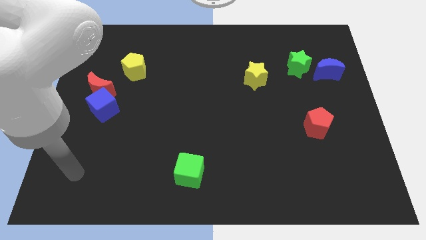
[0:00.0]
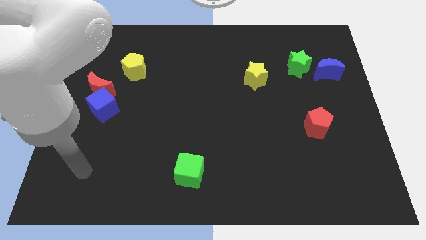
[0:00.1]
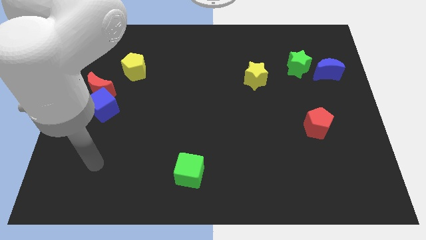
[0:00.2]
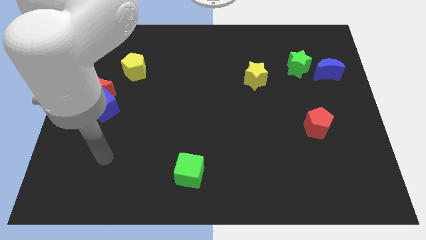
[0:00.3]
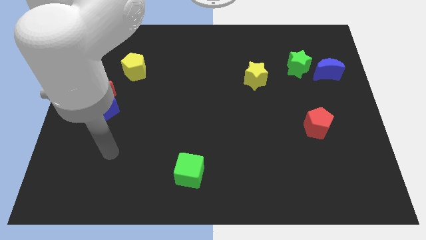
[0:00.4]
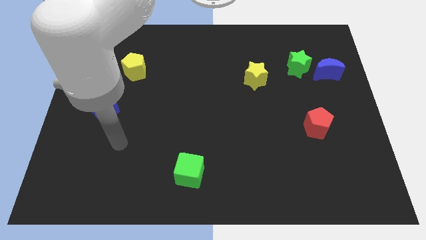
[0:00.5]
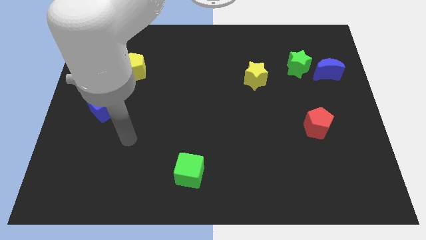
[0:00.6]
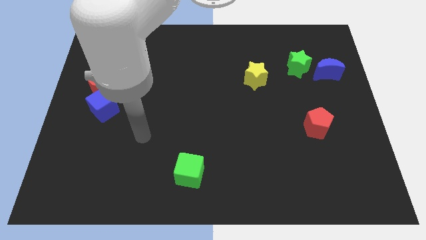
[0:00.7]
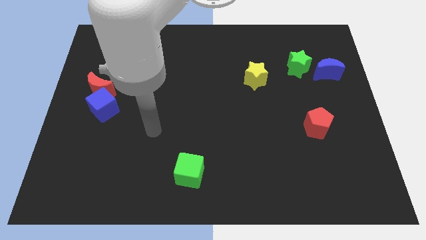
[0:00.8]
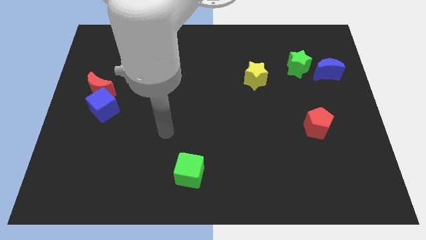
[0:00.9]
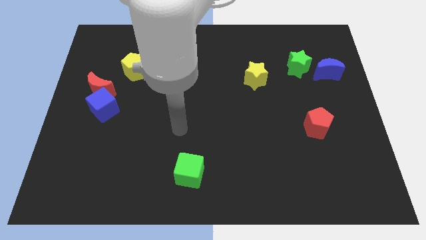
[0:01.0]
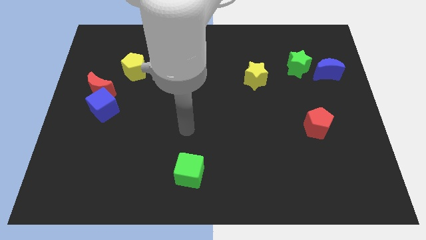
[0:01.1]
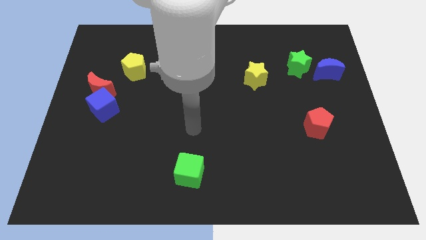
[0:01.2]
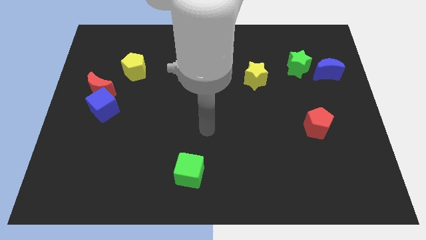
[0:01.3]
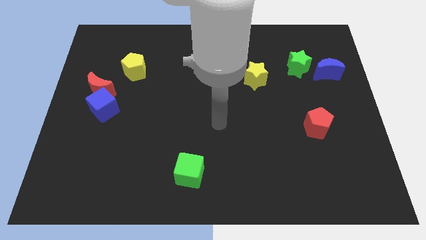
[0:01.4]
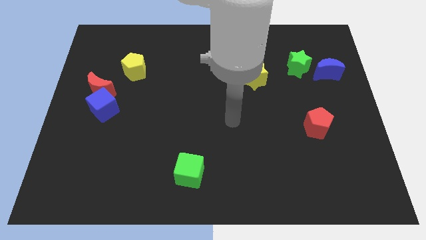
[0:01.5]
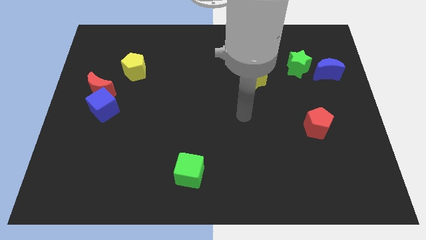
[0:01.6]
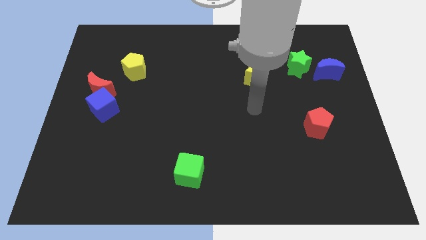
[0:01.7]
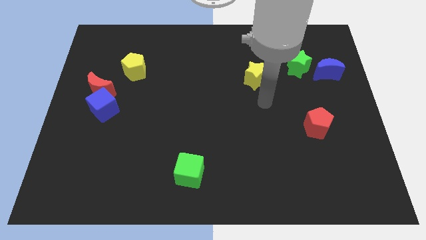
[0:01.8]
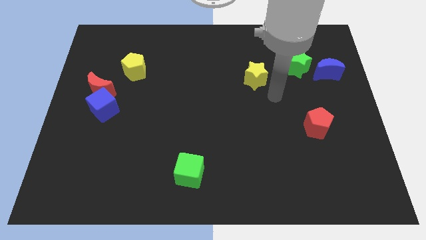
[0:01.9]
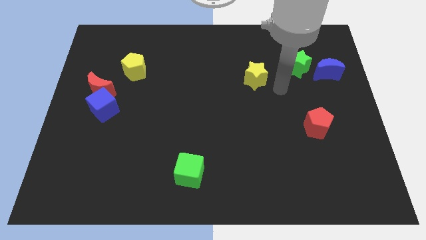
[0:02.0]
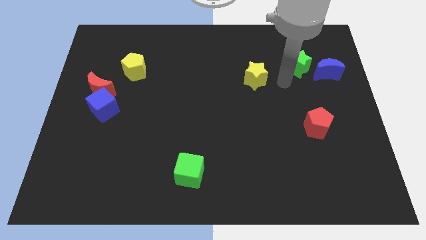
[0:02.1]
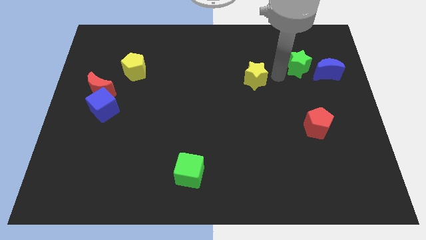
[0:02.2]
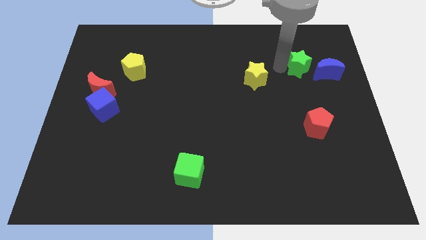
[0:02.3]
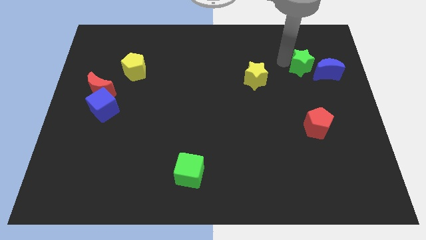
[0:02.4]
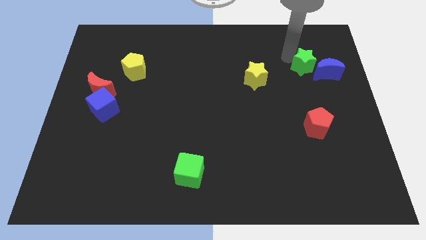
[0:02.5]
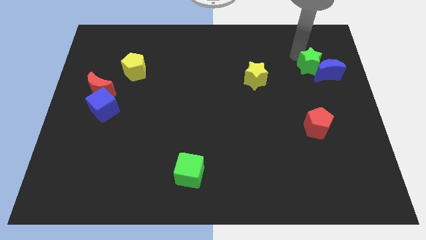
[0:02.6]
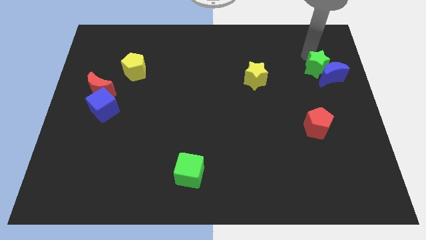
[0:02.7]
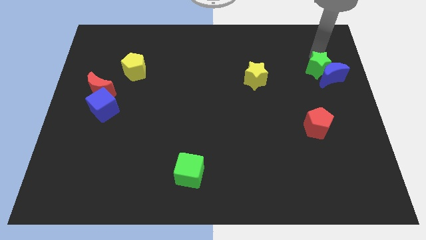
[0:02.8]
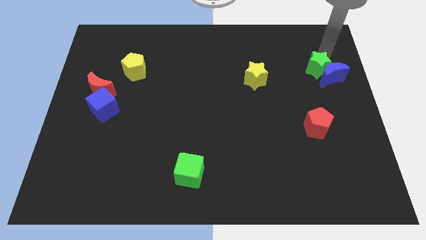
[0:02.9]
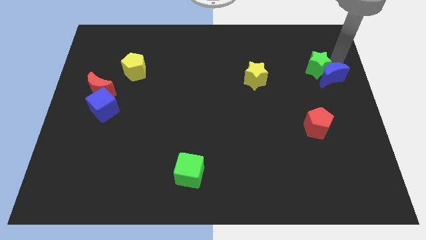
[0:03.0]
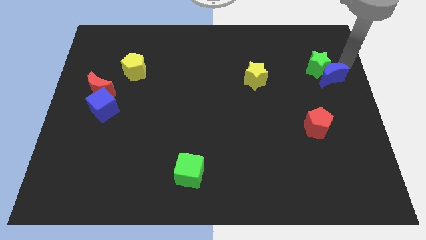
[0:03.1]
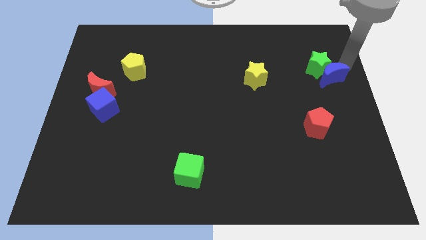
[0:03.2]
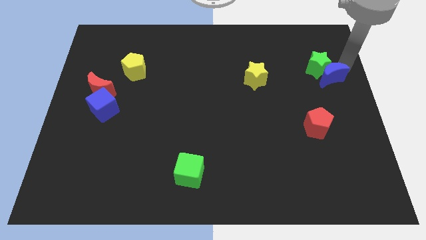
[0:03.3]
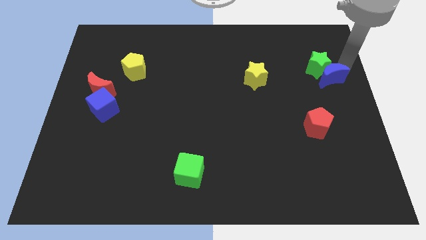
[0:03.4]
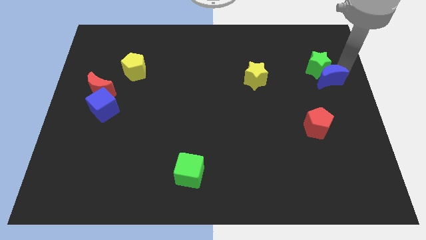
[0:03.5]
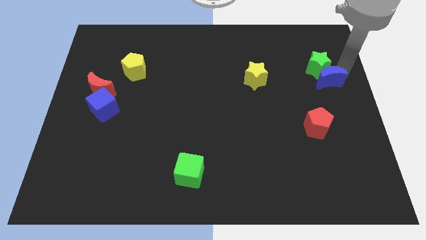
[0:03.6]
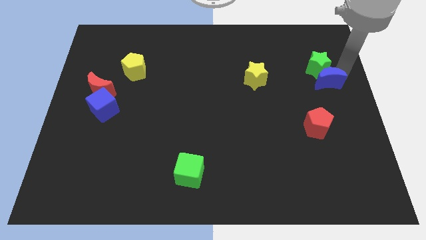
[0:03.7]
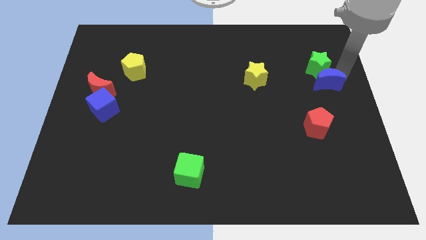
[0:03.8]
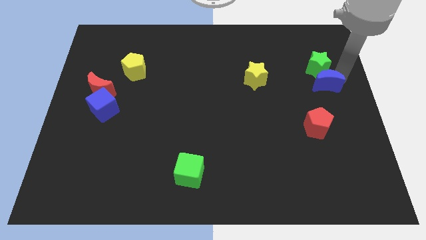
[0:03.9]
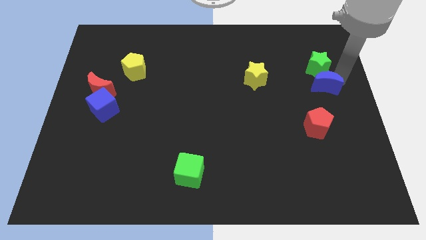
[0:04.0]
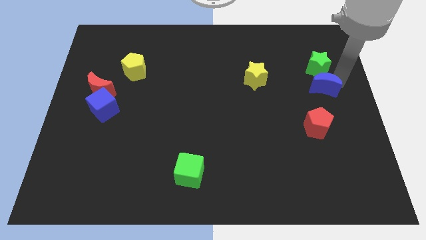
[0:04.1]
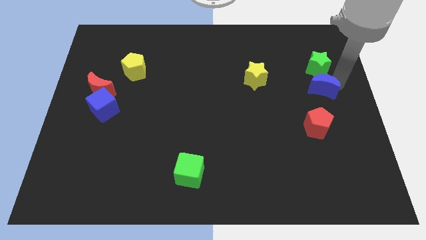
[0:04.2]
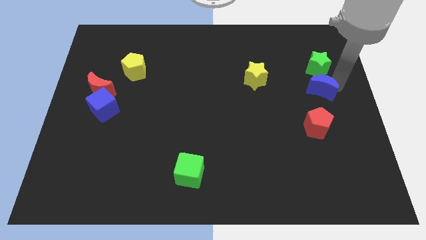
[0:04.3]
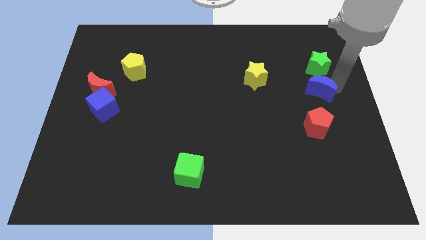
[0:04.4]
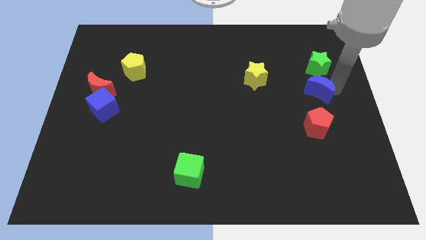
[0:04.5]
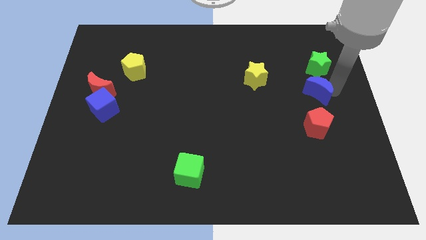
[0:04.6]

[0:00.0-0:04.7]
move the blue moon downwards and then to the left slightly

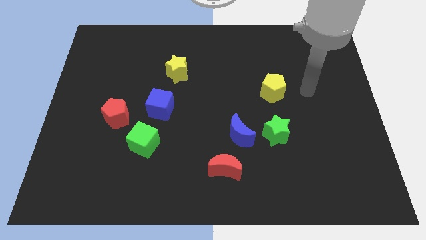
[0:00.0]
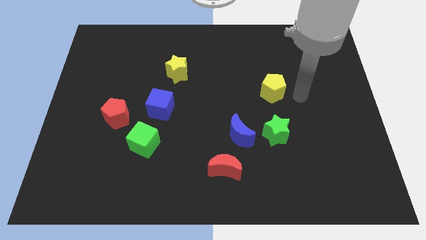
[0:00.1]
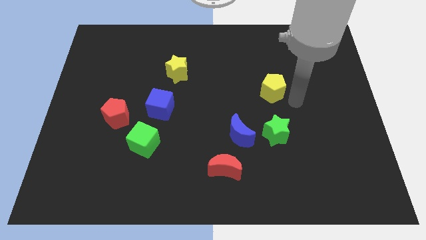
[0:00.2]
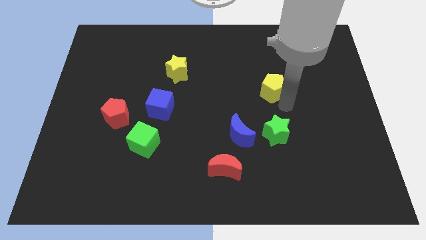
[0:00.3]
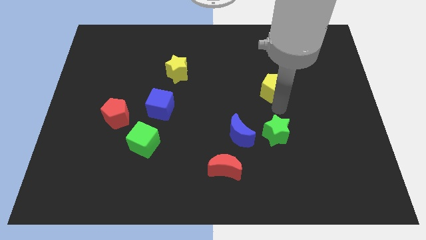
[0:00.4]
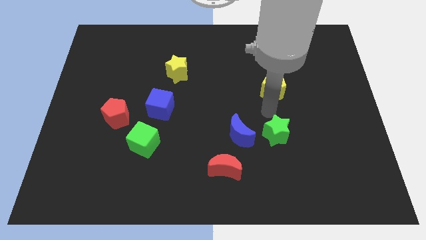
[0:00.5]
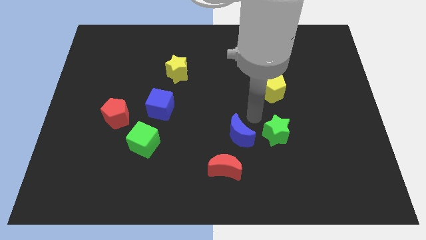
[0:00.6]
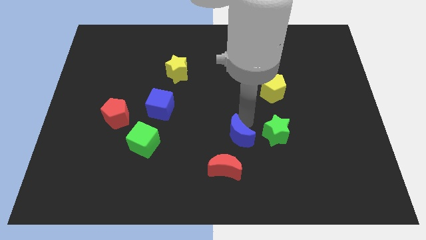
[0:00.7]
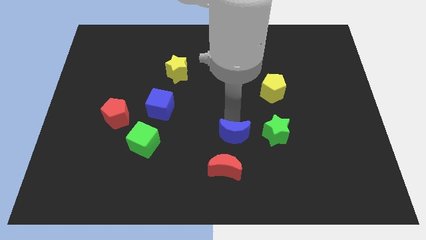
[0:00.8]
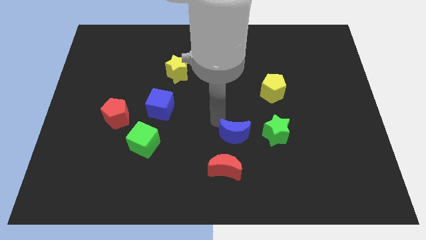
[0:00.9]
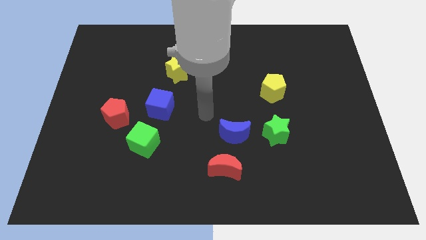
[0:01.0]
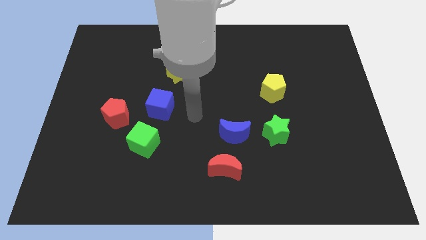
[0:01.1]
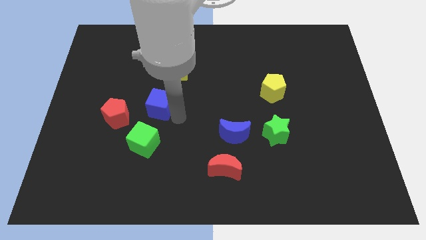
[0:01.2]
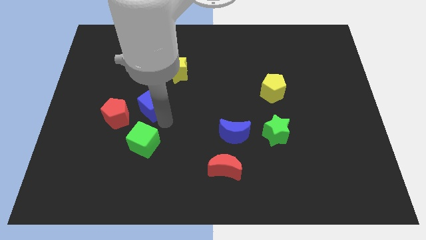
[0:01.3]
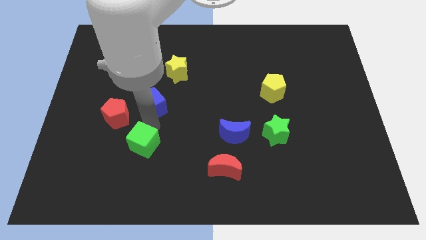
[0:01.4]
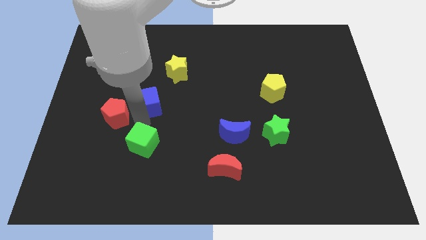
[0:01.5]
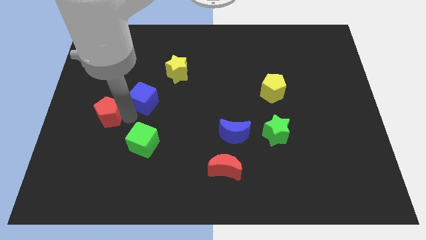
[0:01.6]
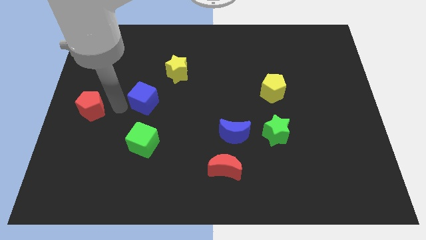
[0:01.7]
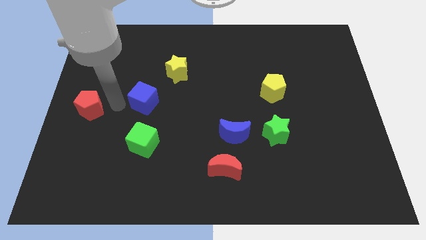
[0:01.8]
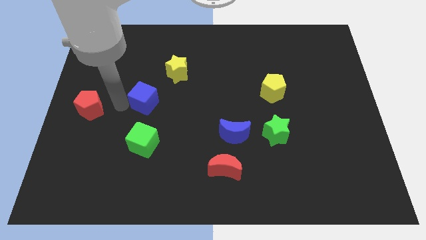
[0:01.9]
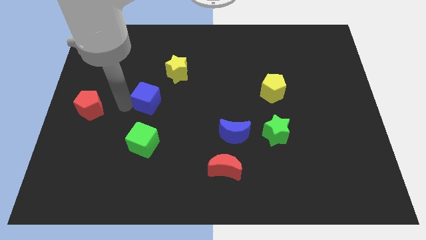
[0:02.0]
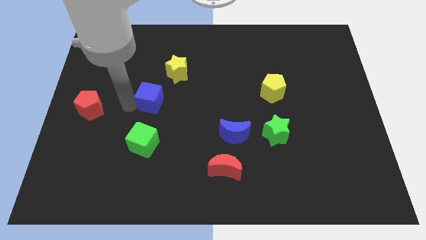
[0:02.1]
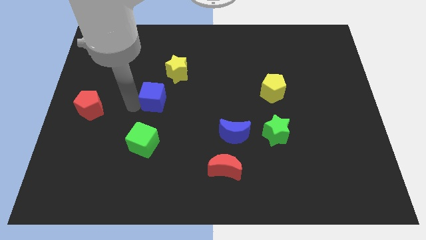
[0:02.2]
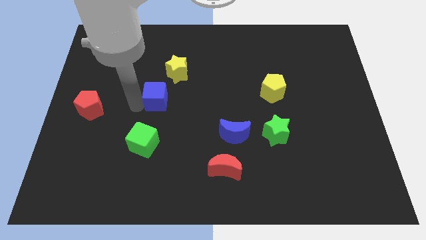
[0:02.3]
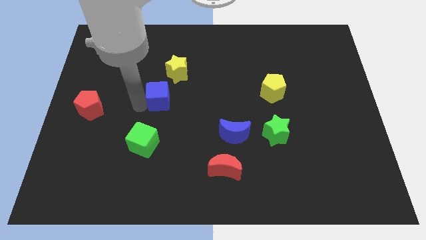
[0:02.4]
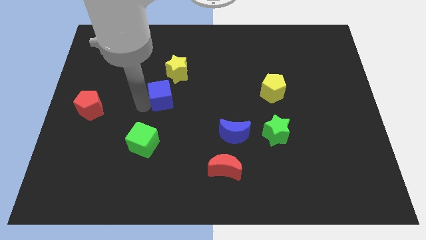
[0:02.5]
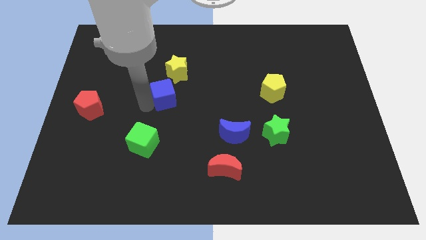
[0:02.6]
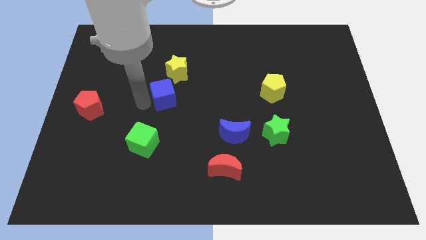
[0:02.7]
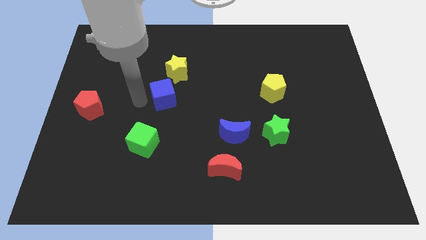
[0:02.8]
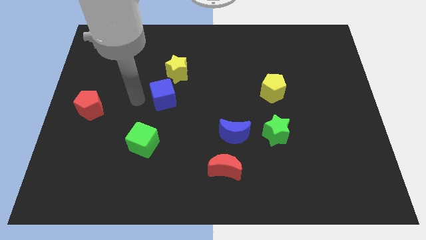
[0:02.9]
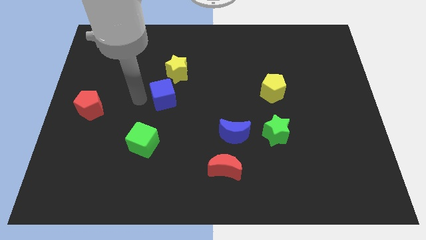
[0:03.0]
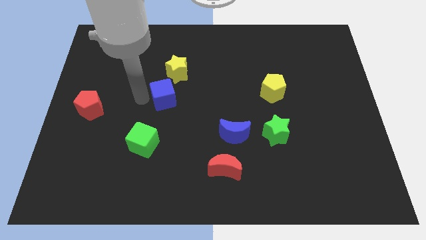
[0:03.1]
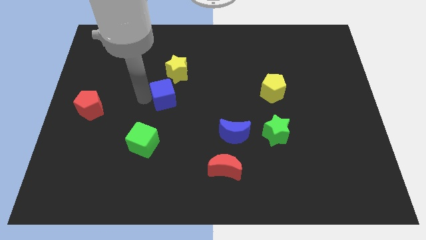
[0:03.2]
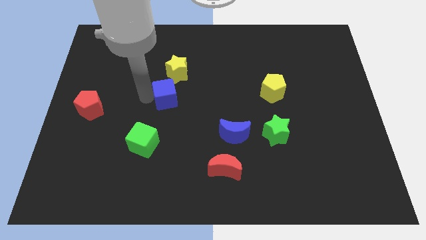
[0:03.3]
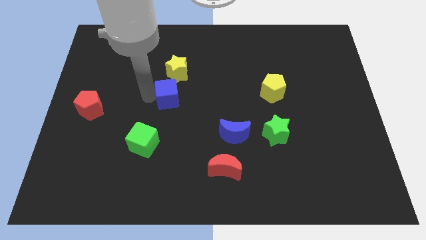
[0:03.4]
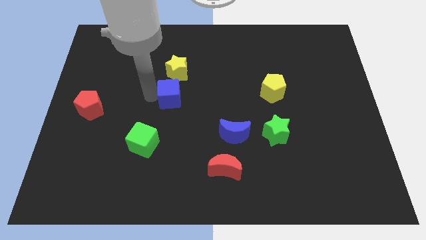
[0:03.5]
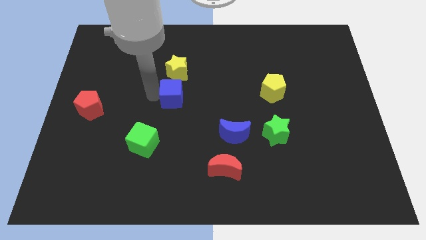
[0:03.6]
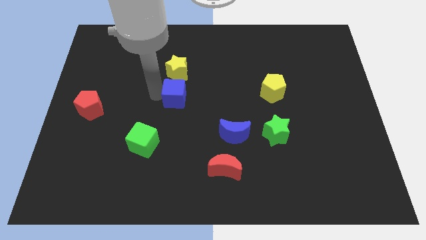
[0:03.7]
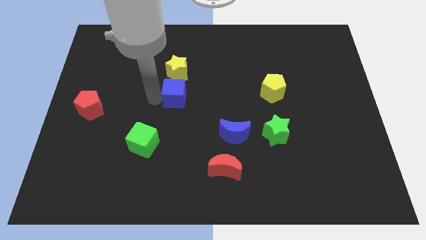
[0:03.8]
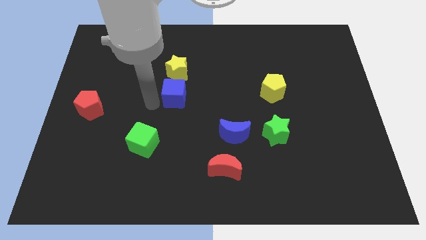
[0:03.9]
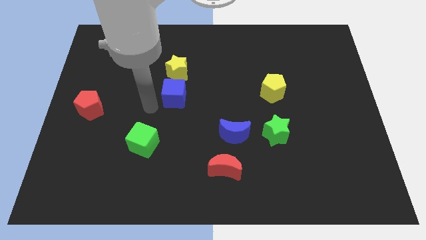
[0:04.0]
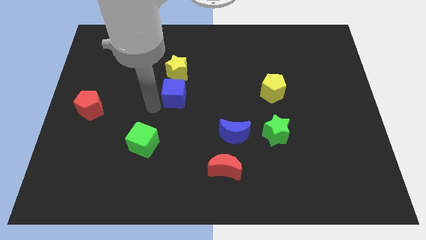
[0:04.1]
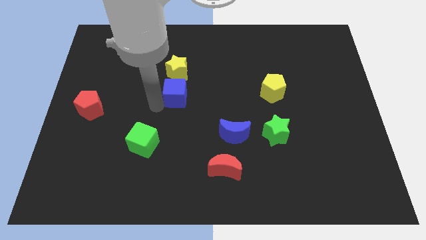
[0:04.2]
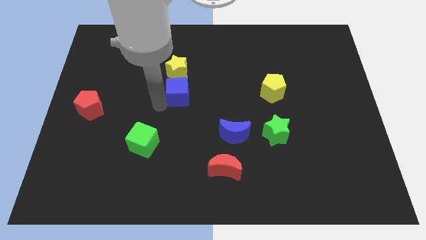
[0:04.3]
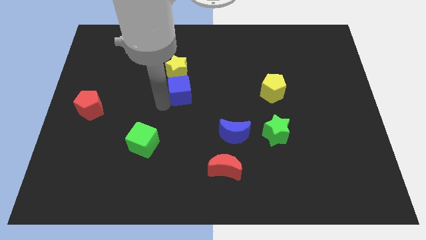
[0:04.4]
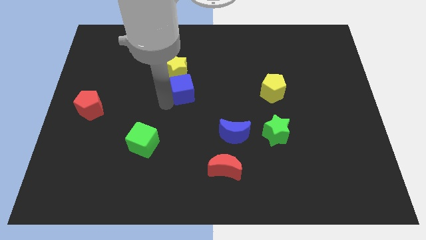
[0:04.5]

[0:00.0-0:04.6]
move the blue cube diagonally upwards and to the right slightly
